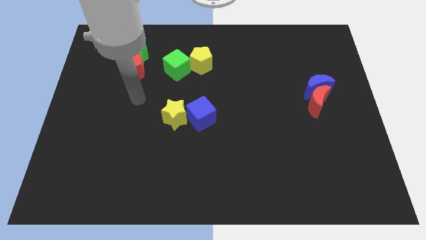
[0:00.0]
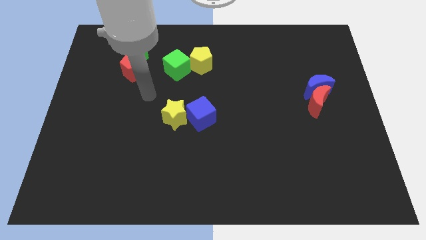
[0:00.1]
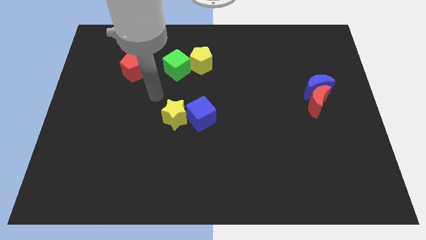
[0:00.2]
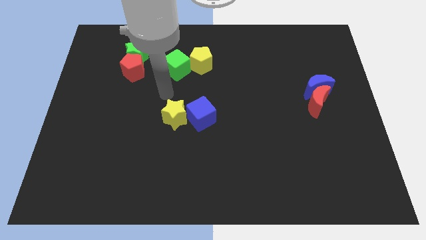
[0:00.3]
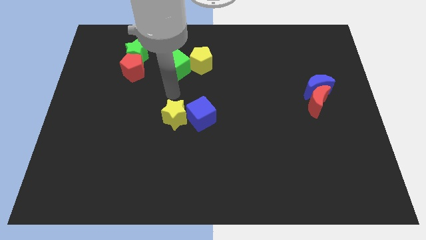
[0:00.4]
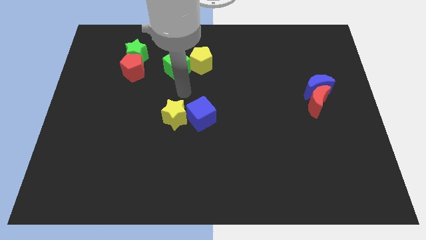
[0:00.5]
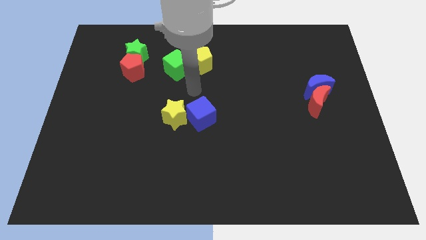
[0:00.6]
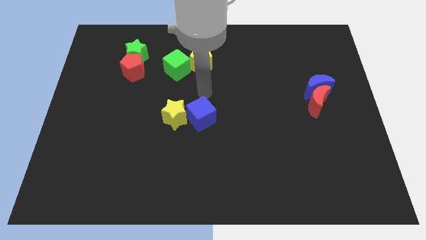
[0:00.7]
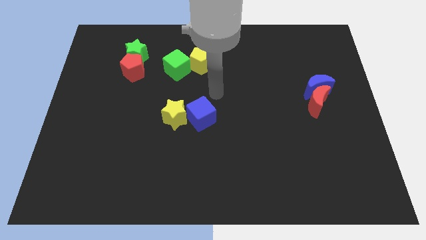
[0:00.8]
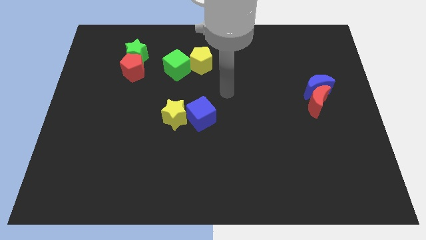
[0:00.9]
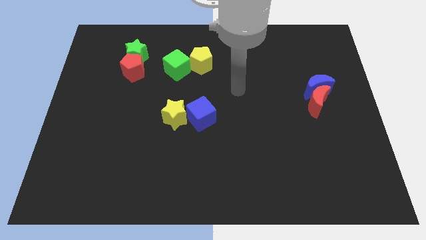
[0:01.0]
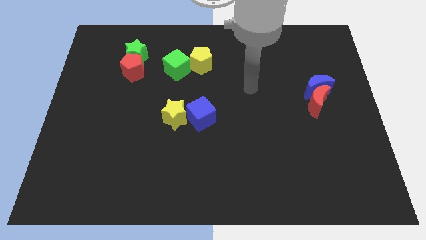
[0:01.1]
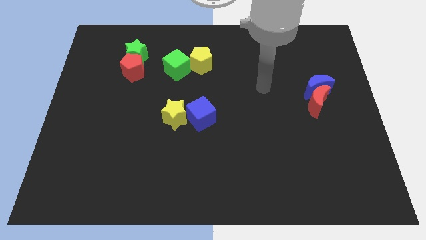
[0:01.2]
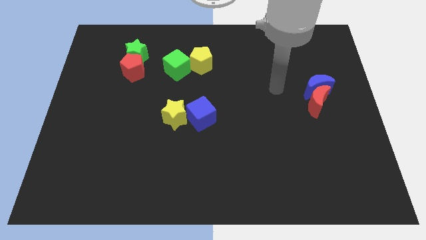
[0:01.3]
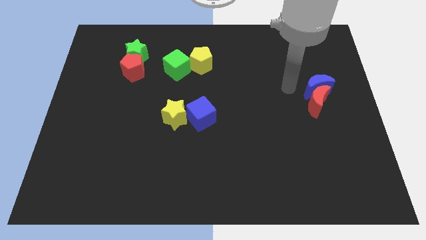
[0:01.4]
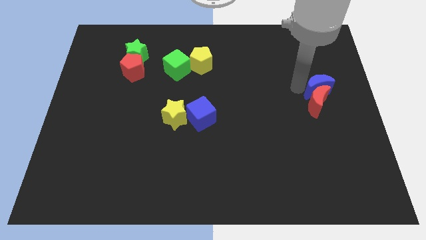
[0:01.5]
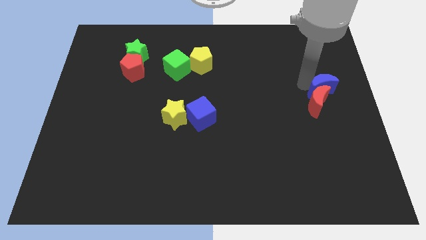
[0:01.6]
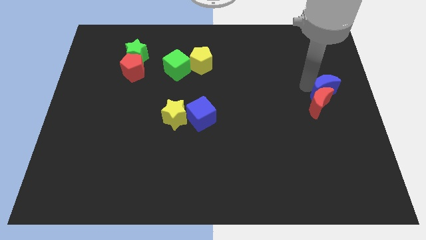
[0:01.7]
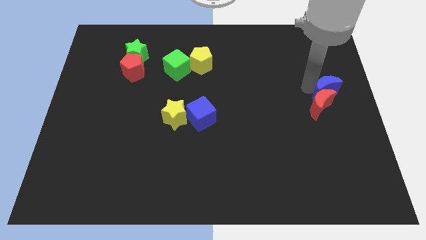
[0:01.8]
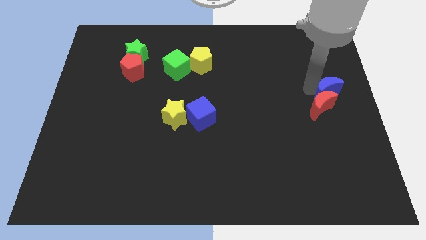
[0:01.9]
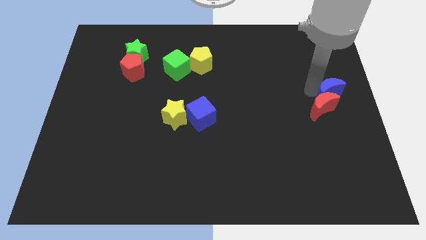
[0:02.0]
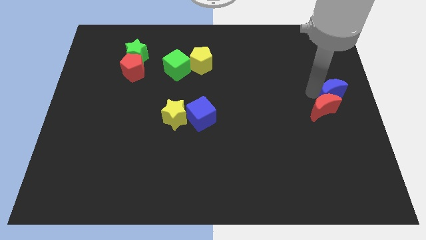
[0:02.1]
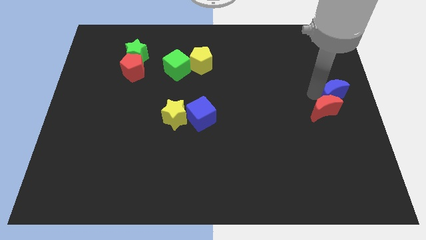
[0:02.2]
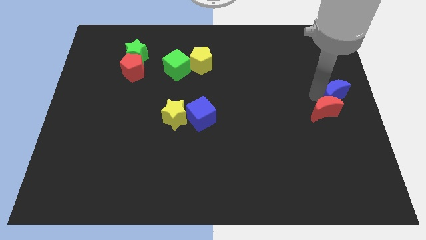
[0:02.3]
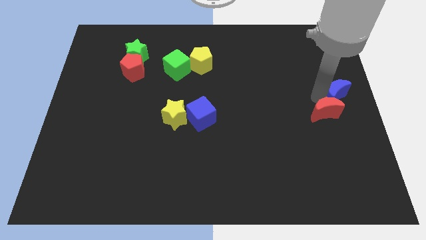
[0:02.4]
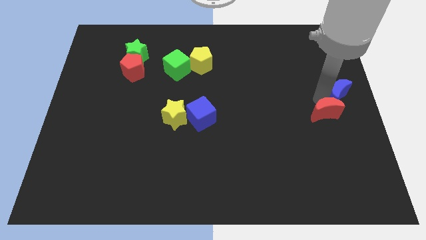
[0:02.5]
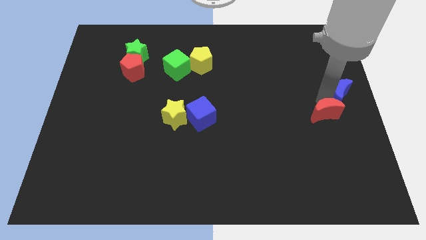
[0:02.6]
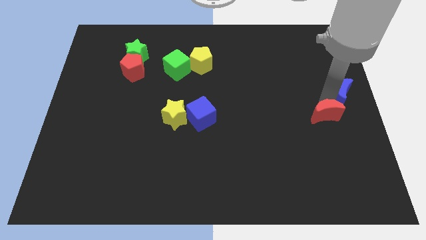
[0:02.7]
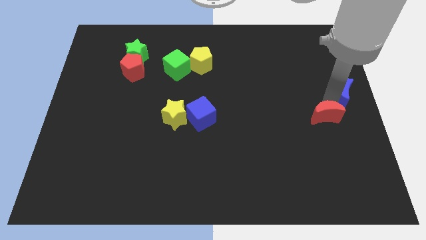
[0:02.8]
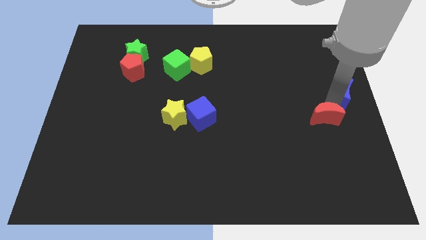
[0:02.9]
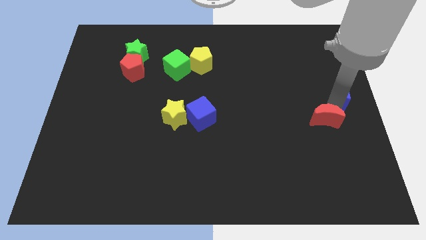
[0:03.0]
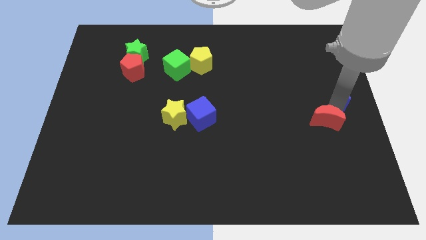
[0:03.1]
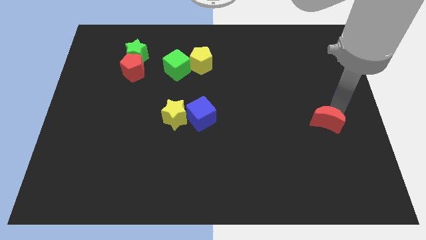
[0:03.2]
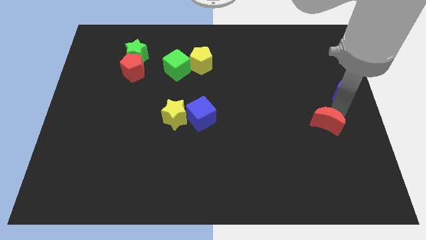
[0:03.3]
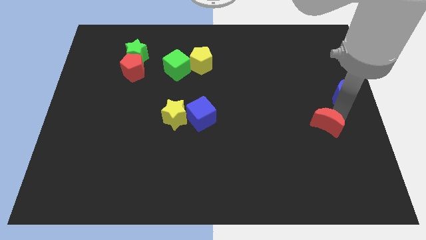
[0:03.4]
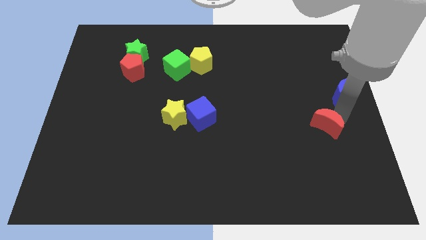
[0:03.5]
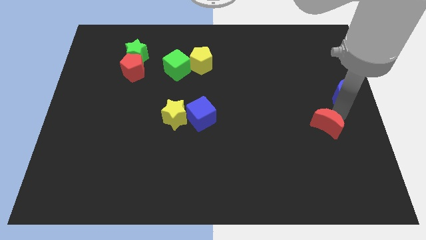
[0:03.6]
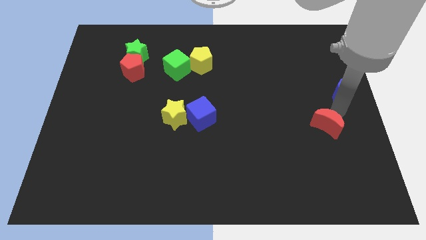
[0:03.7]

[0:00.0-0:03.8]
pull the red moon apart from the blue moon

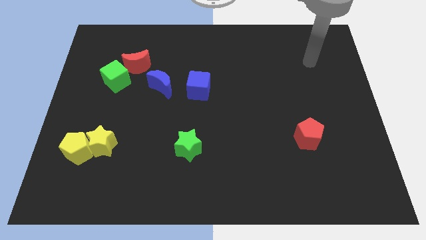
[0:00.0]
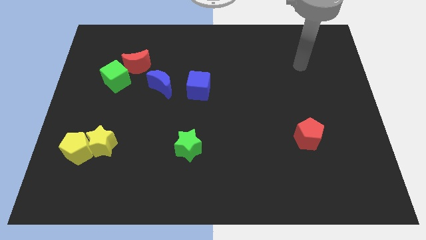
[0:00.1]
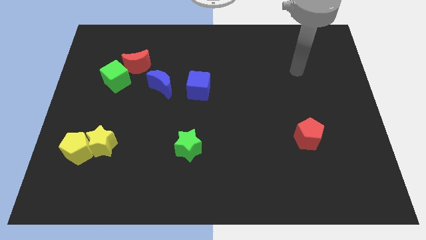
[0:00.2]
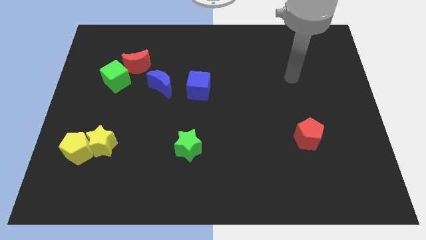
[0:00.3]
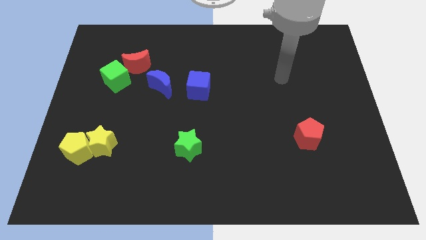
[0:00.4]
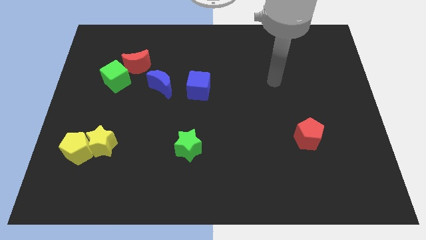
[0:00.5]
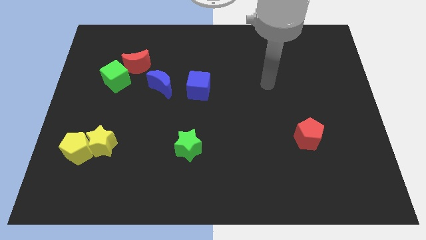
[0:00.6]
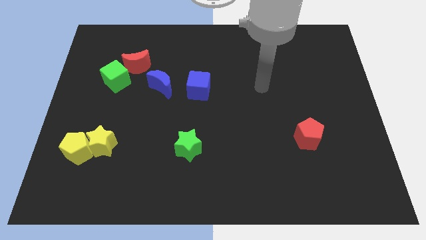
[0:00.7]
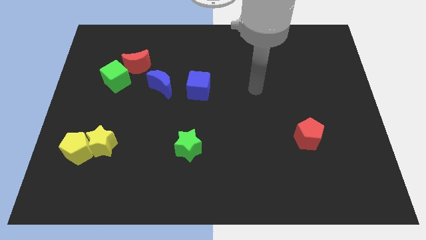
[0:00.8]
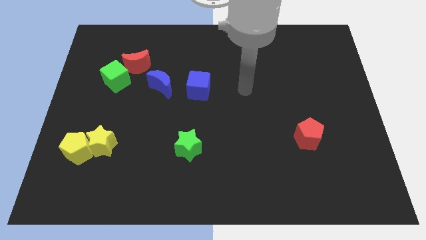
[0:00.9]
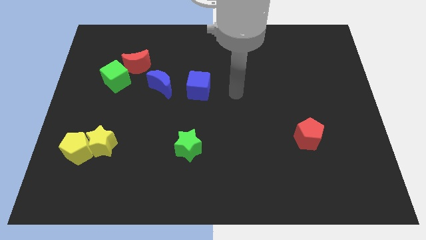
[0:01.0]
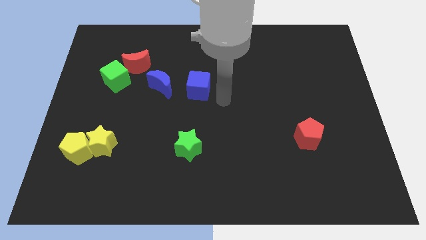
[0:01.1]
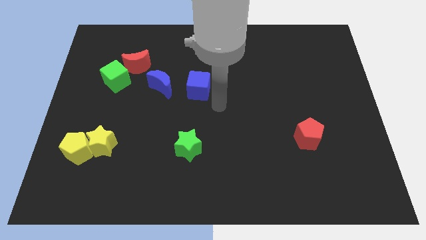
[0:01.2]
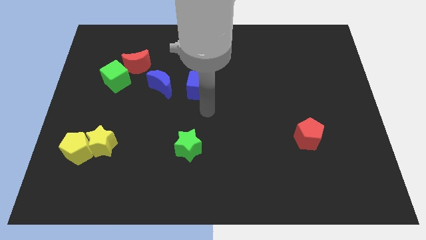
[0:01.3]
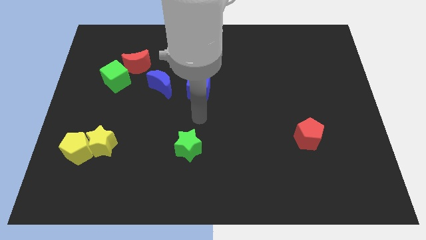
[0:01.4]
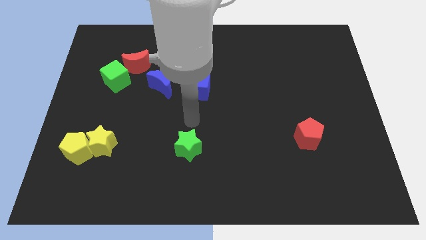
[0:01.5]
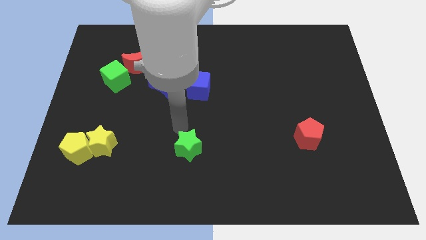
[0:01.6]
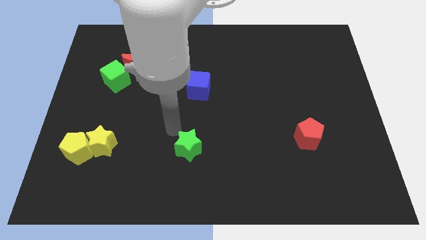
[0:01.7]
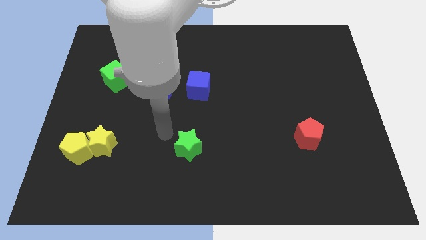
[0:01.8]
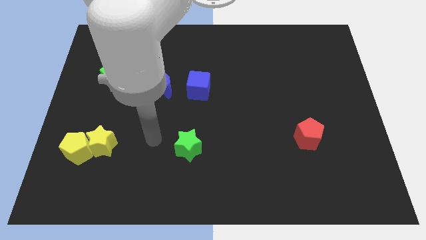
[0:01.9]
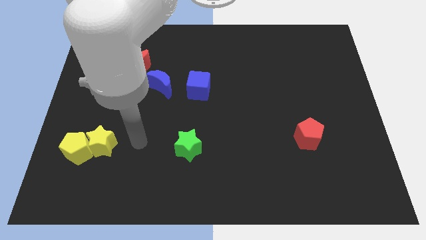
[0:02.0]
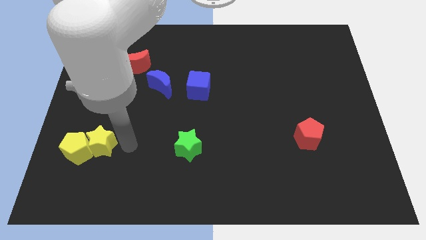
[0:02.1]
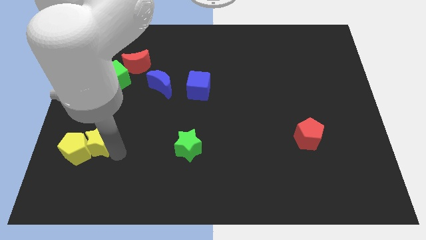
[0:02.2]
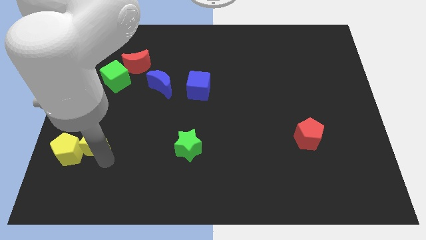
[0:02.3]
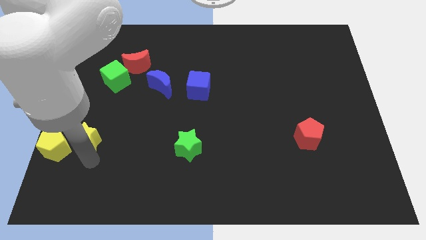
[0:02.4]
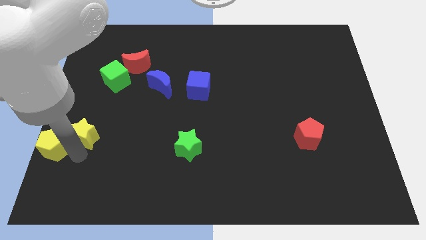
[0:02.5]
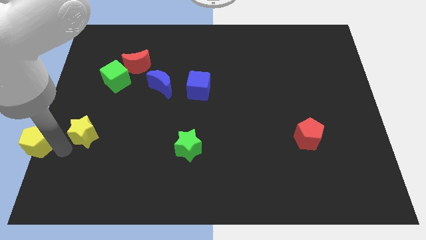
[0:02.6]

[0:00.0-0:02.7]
separate the yellow star from the yellow pentagon

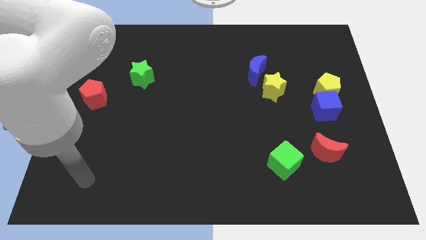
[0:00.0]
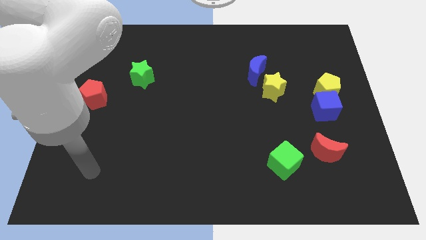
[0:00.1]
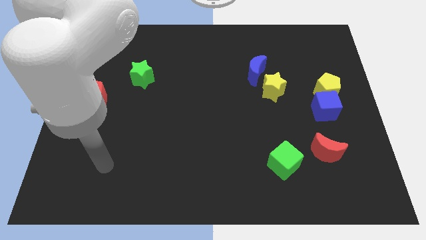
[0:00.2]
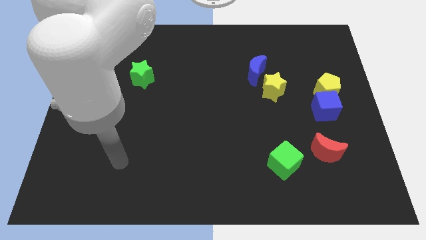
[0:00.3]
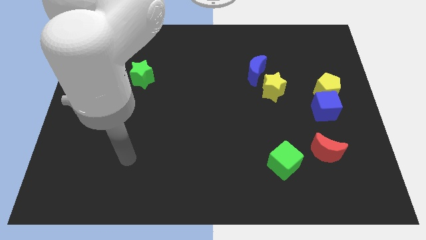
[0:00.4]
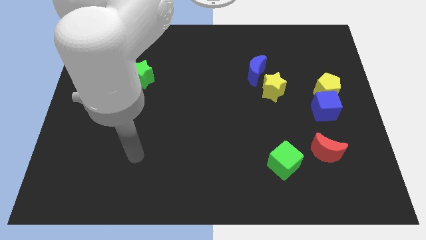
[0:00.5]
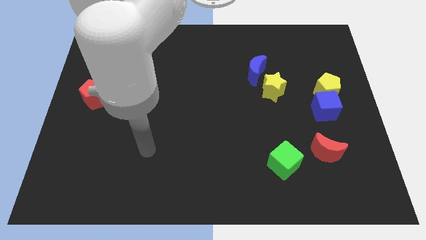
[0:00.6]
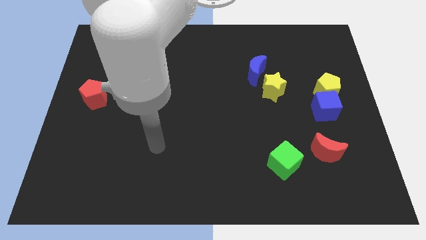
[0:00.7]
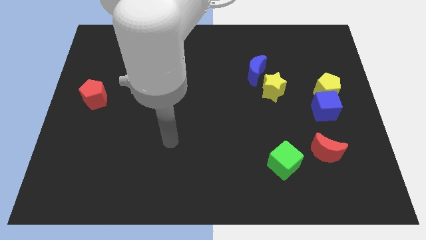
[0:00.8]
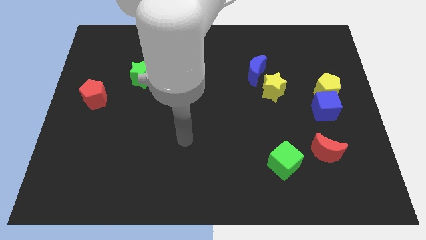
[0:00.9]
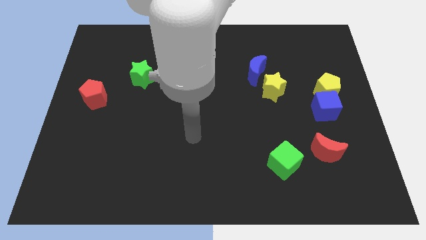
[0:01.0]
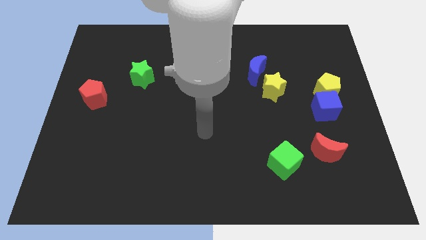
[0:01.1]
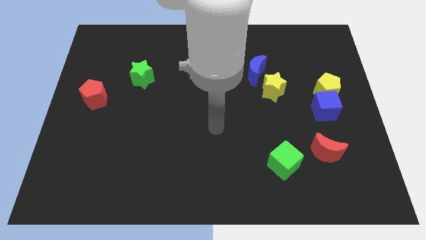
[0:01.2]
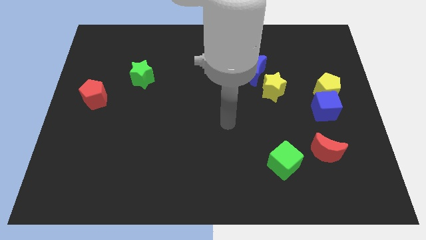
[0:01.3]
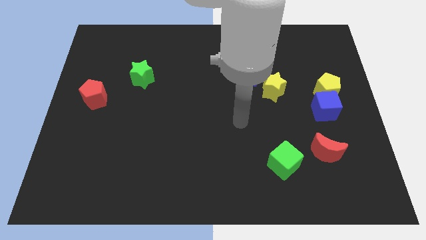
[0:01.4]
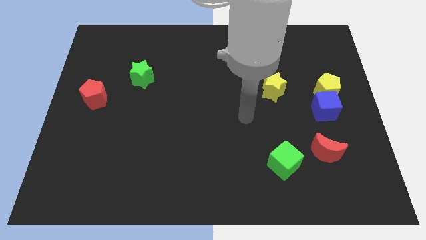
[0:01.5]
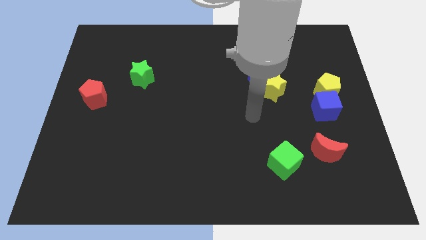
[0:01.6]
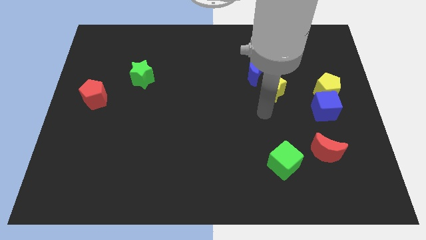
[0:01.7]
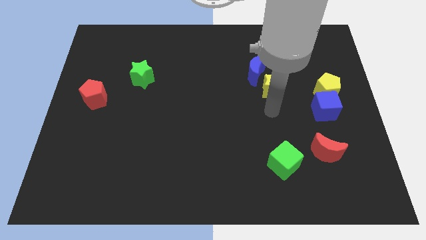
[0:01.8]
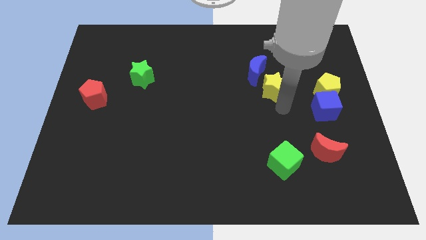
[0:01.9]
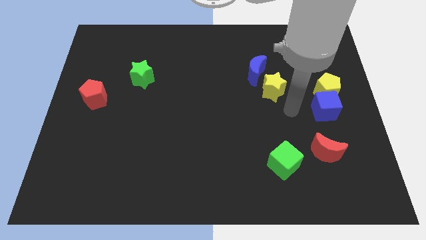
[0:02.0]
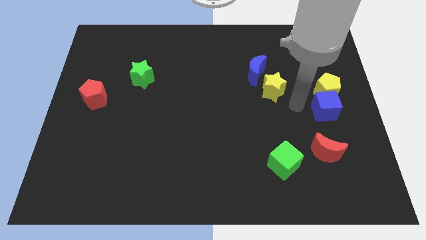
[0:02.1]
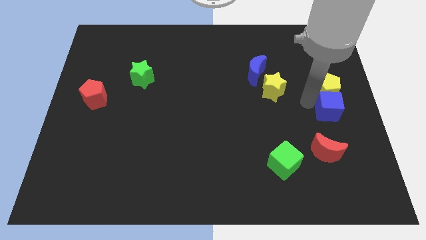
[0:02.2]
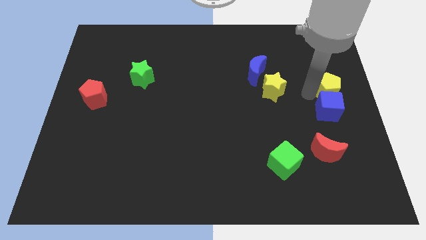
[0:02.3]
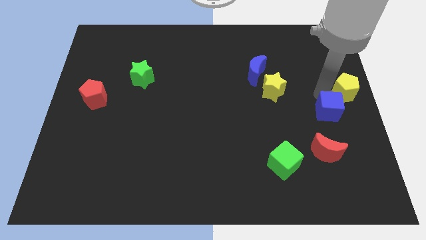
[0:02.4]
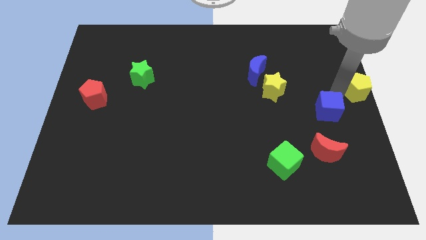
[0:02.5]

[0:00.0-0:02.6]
separate the blue cube from the yellow pentagon

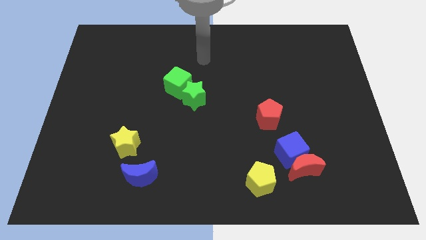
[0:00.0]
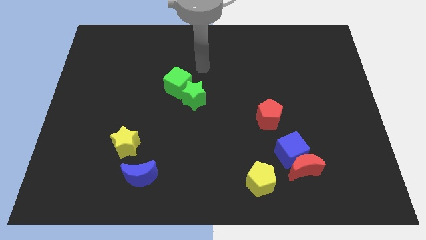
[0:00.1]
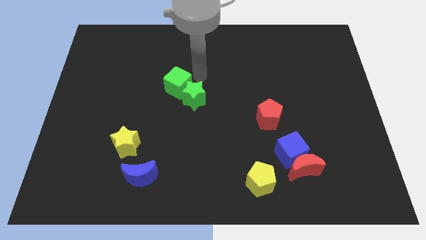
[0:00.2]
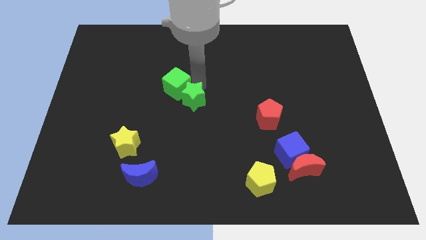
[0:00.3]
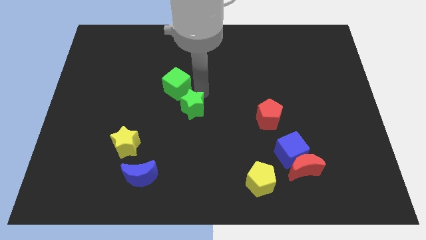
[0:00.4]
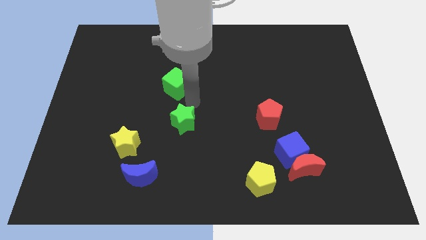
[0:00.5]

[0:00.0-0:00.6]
pull the green cube apart from the green star
